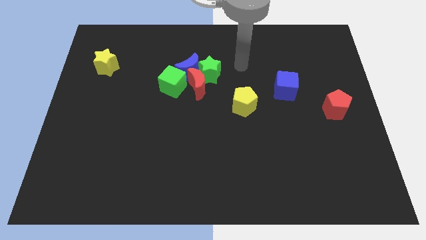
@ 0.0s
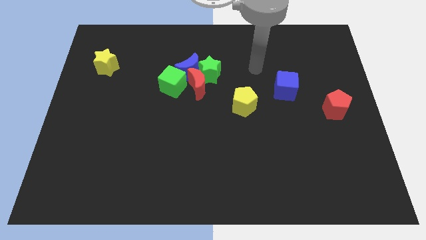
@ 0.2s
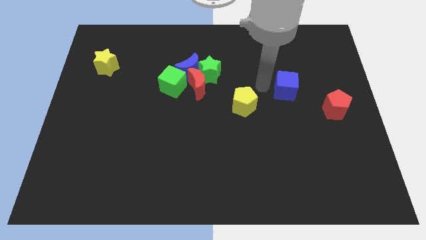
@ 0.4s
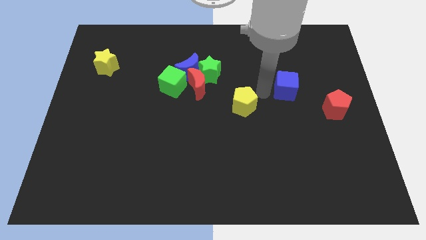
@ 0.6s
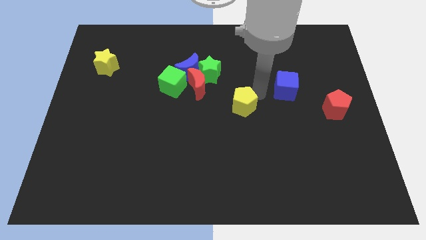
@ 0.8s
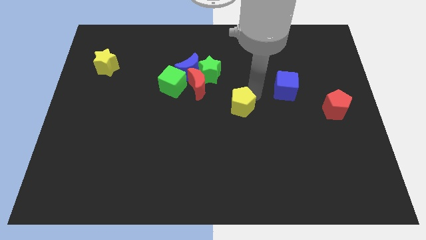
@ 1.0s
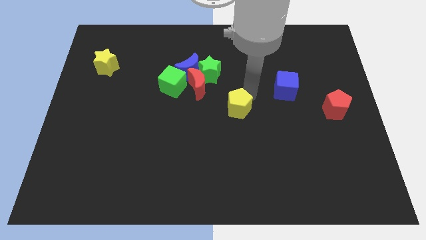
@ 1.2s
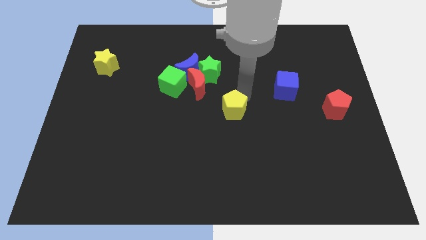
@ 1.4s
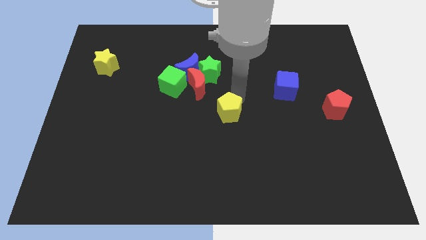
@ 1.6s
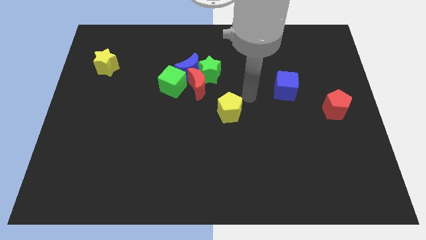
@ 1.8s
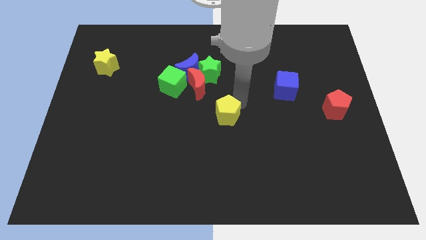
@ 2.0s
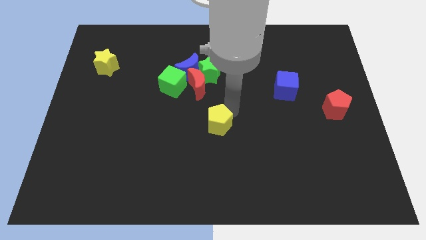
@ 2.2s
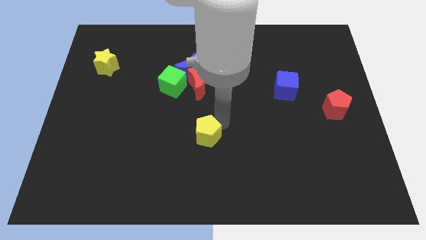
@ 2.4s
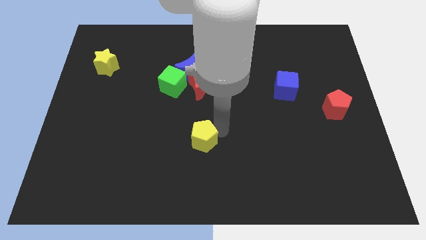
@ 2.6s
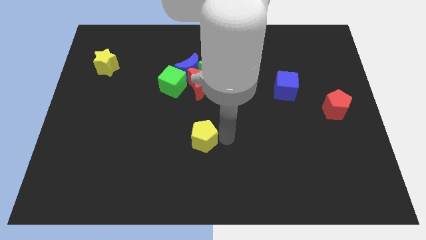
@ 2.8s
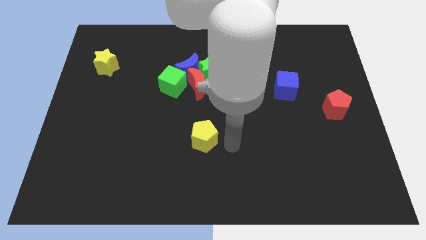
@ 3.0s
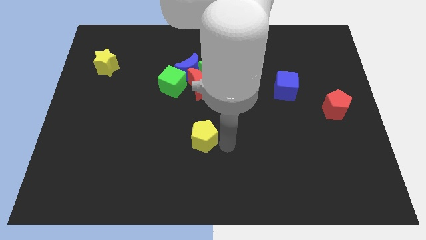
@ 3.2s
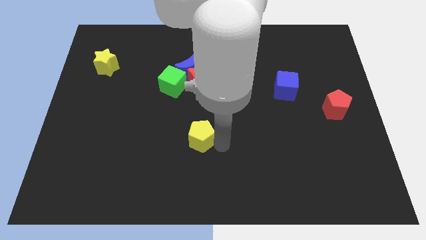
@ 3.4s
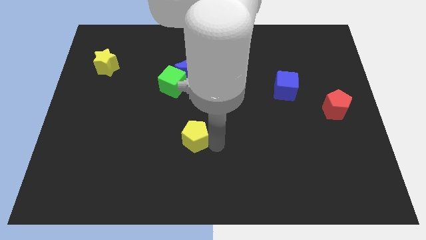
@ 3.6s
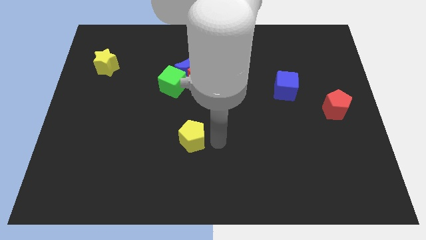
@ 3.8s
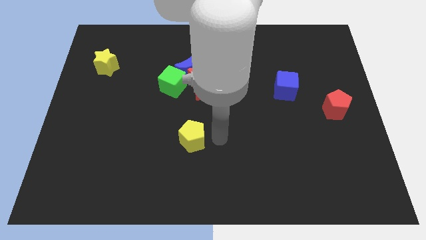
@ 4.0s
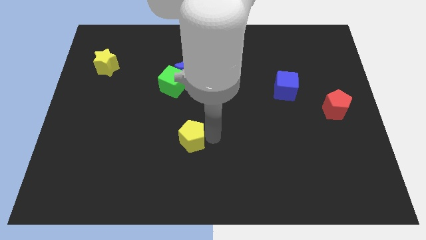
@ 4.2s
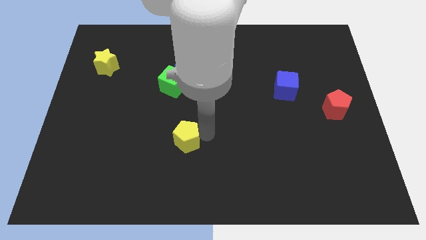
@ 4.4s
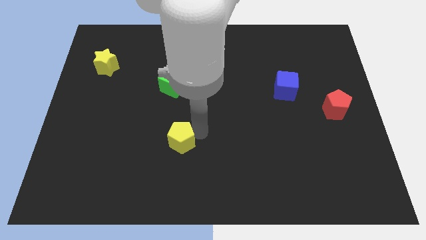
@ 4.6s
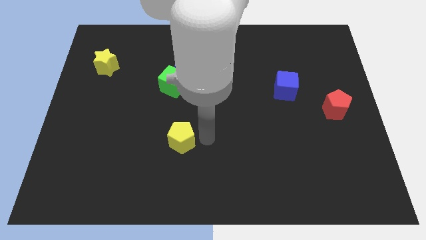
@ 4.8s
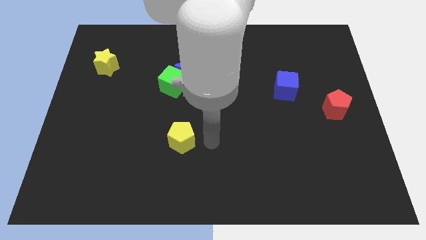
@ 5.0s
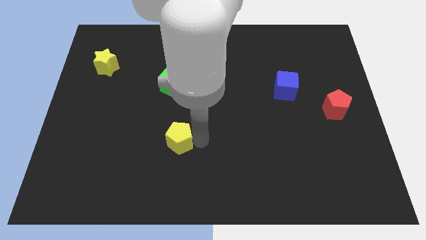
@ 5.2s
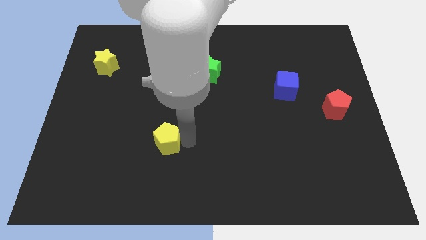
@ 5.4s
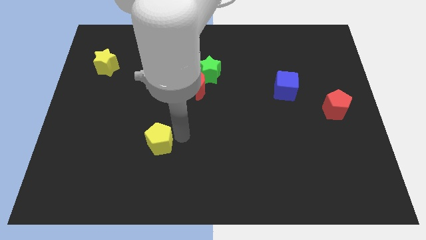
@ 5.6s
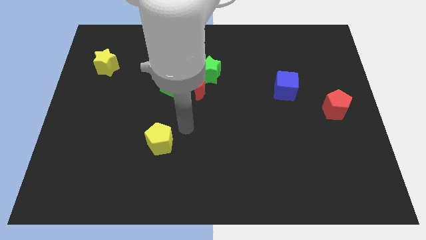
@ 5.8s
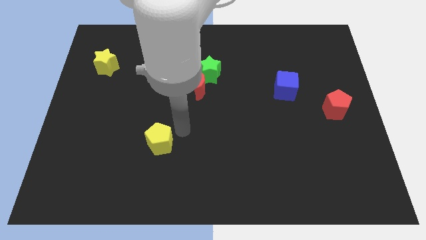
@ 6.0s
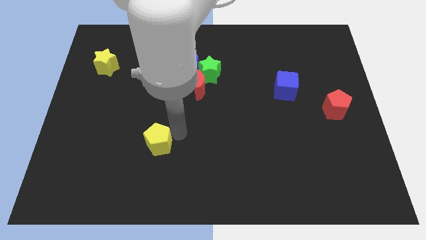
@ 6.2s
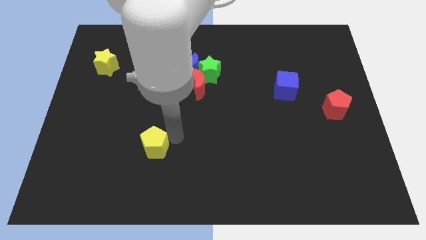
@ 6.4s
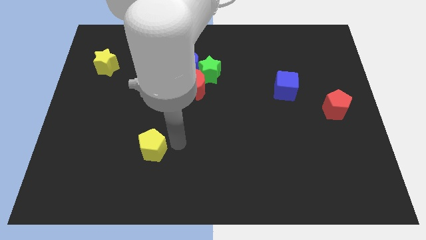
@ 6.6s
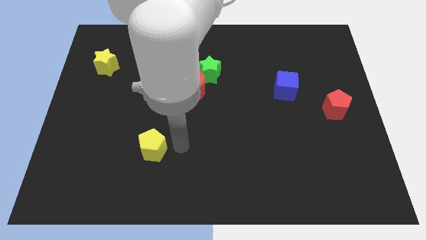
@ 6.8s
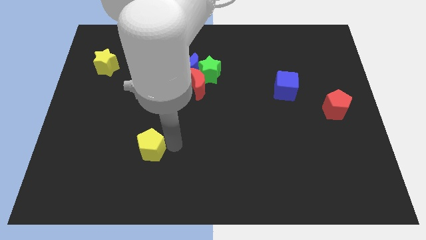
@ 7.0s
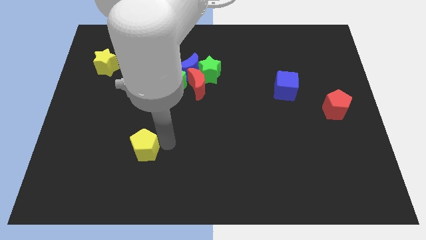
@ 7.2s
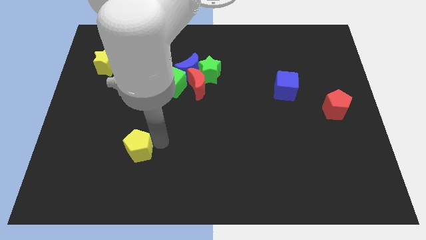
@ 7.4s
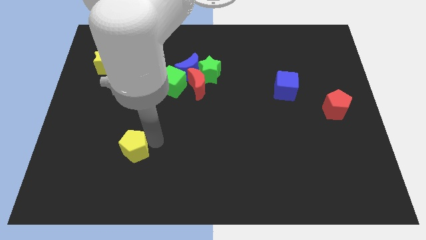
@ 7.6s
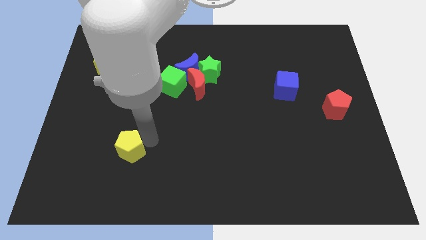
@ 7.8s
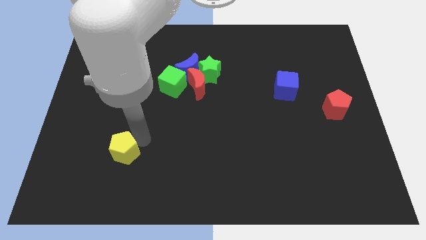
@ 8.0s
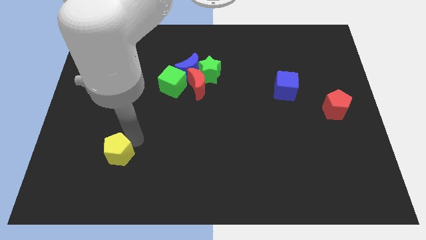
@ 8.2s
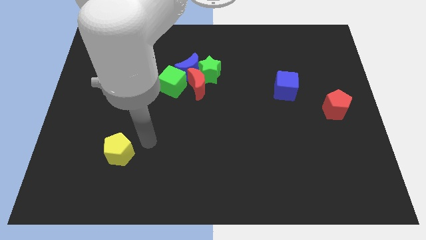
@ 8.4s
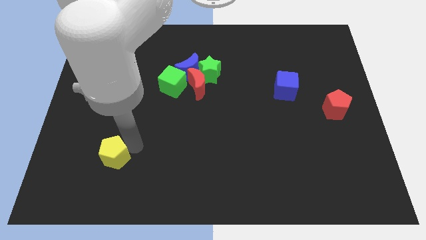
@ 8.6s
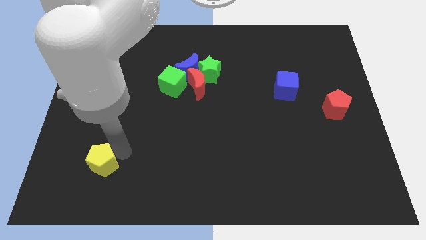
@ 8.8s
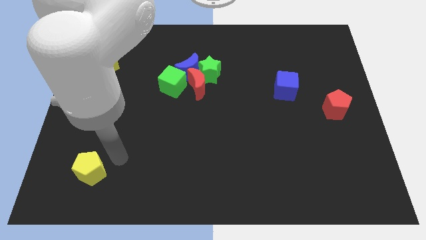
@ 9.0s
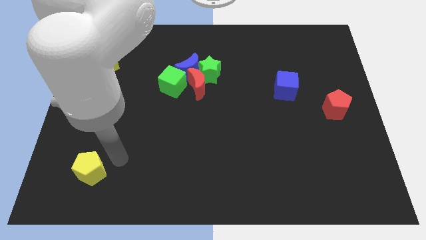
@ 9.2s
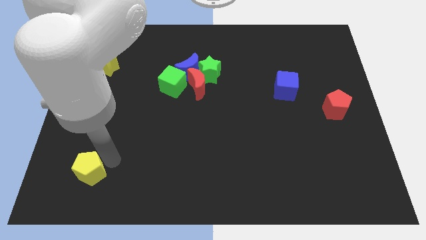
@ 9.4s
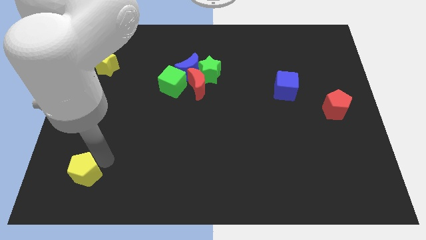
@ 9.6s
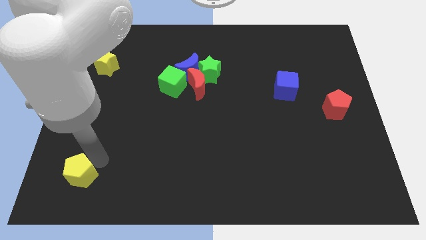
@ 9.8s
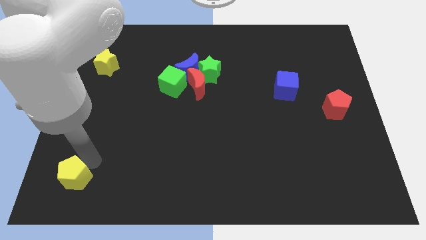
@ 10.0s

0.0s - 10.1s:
push the yellow pentagon to the bottom left

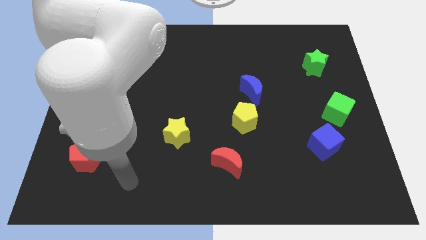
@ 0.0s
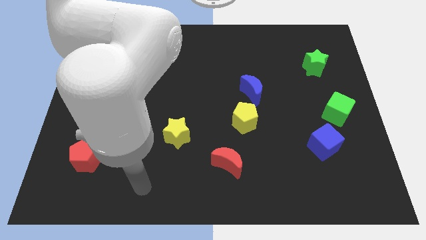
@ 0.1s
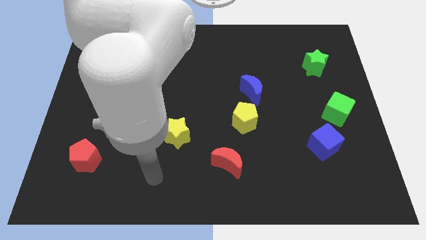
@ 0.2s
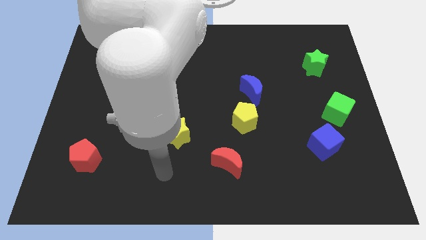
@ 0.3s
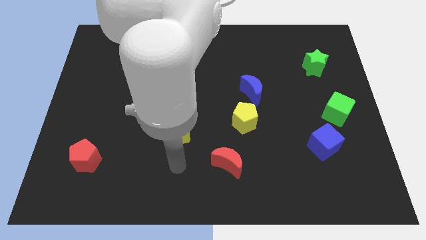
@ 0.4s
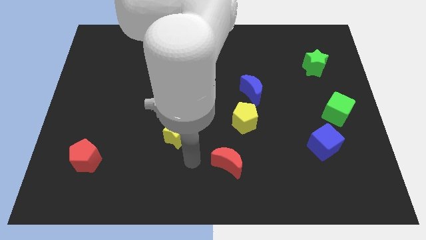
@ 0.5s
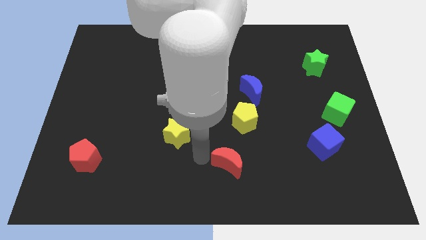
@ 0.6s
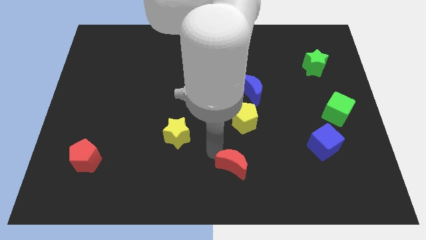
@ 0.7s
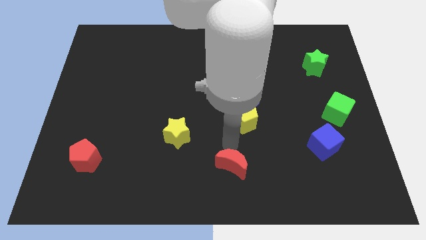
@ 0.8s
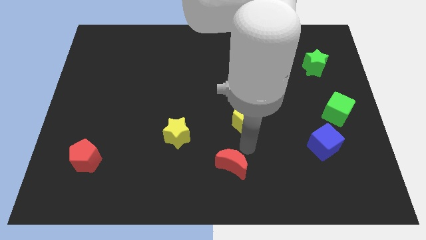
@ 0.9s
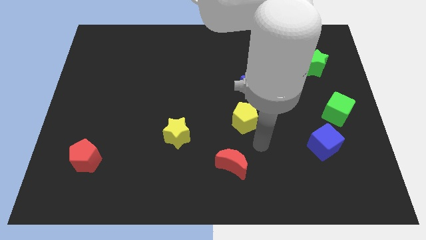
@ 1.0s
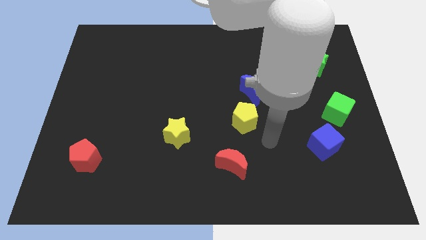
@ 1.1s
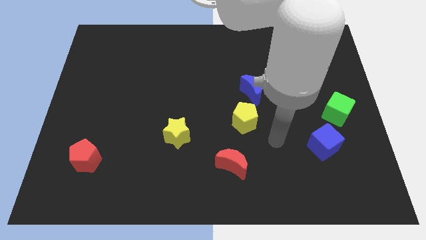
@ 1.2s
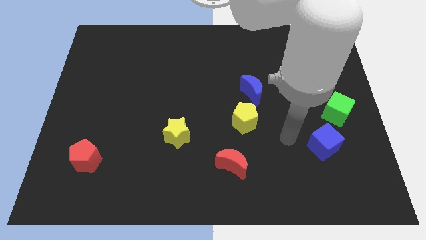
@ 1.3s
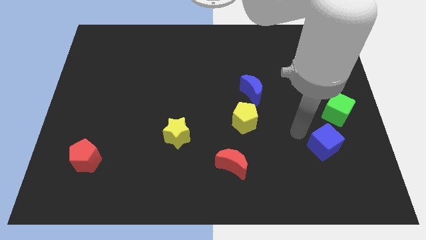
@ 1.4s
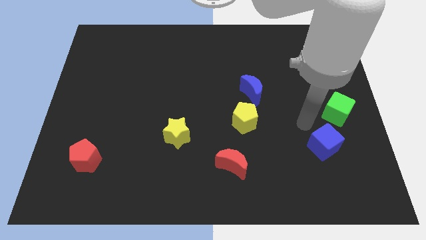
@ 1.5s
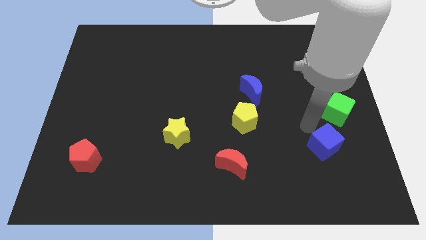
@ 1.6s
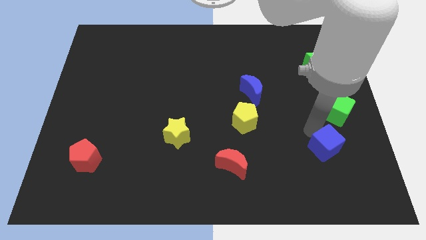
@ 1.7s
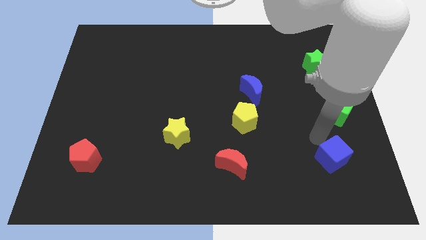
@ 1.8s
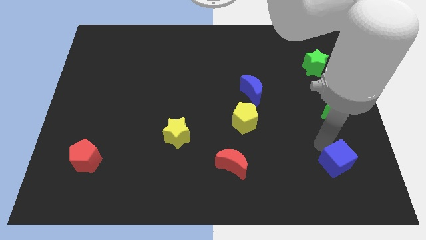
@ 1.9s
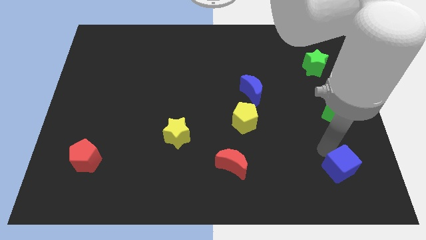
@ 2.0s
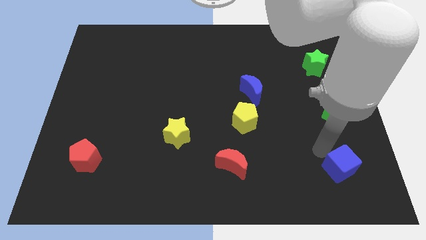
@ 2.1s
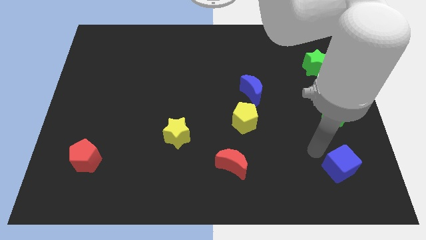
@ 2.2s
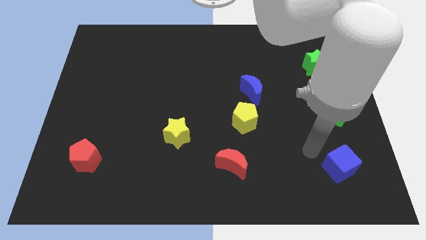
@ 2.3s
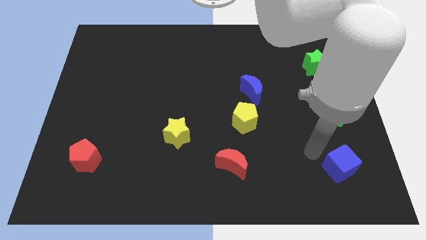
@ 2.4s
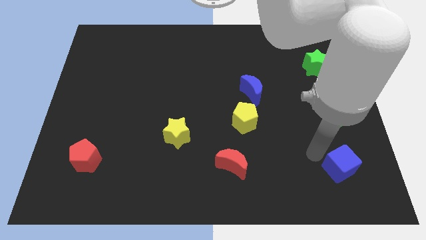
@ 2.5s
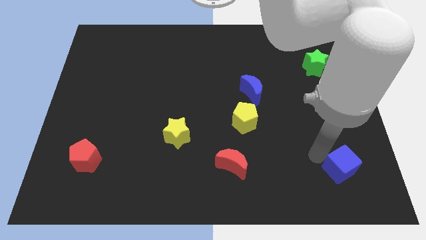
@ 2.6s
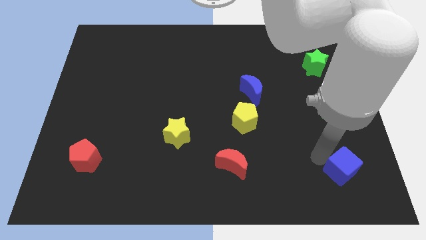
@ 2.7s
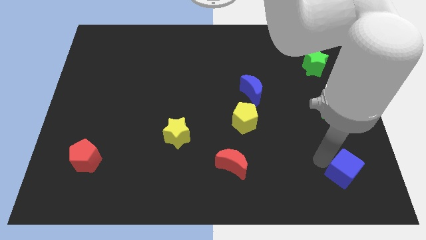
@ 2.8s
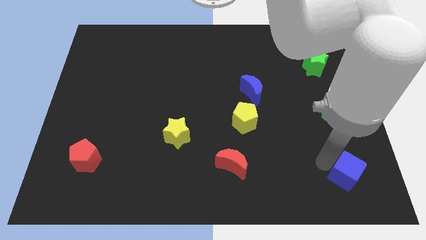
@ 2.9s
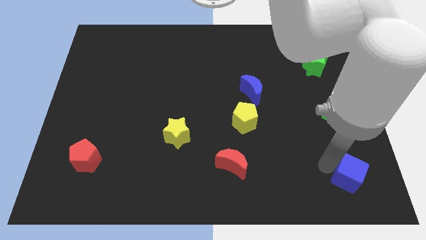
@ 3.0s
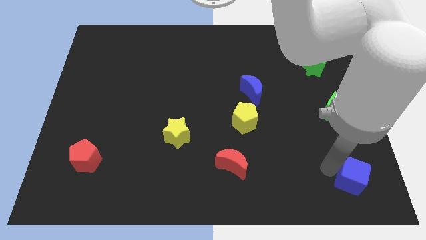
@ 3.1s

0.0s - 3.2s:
push the blue cube to the bottom right
